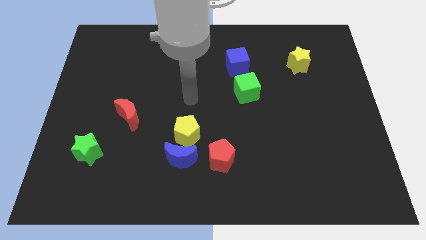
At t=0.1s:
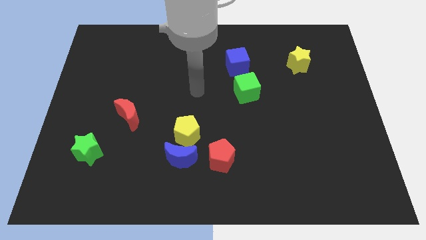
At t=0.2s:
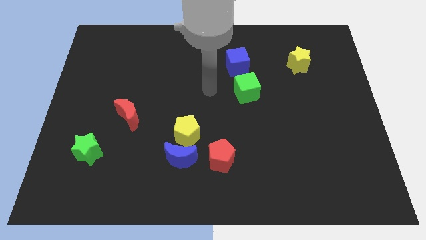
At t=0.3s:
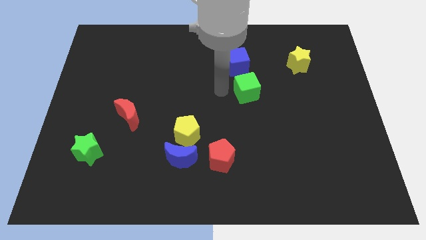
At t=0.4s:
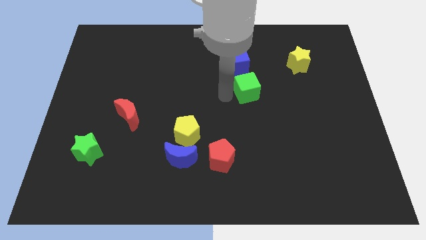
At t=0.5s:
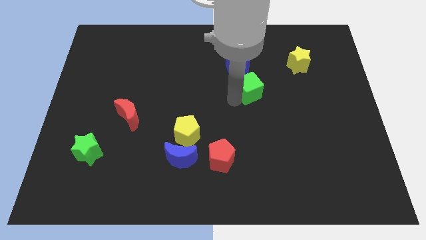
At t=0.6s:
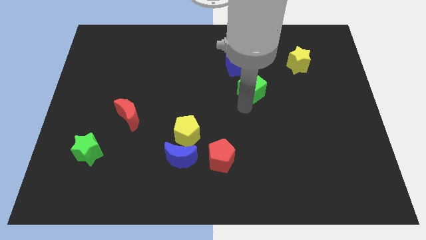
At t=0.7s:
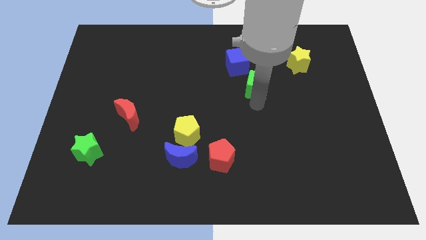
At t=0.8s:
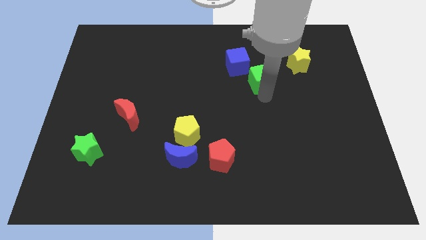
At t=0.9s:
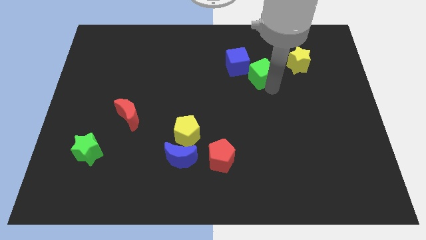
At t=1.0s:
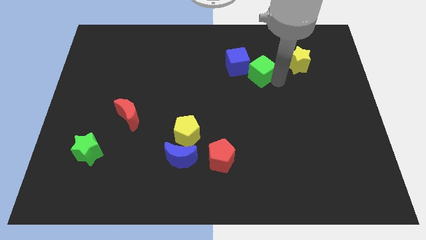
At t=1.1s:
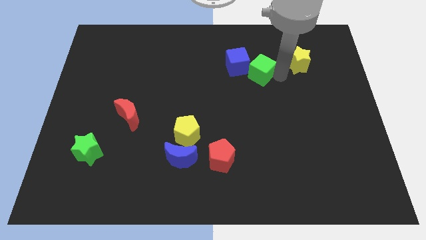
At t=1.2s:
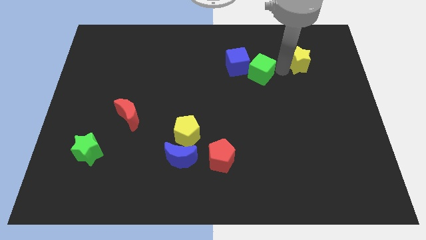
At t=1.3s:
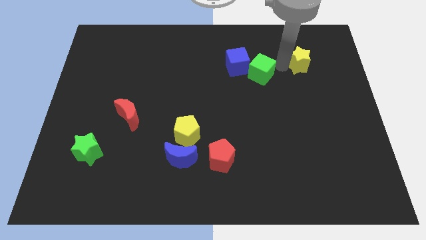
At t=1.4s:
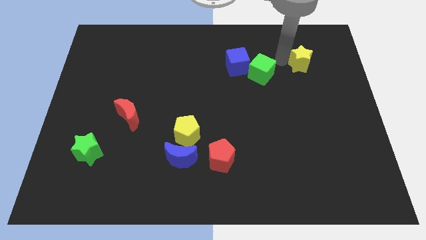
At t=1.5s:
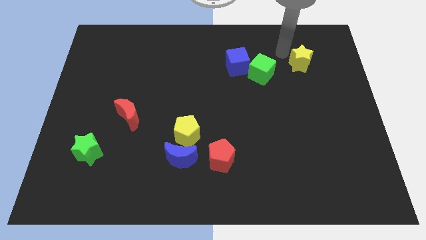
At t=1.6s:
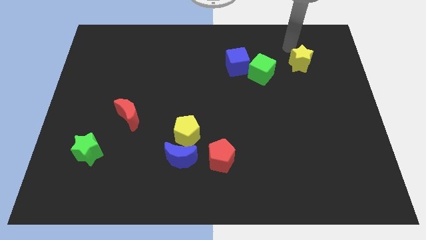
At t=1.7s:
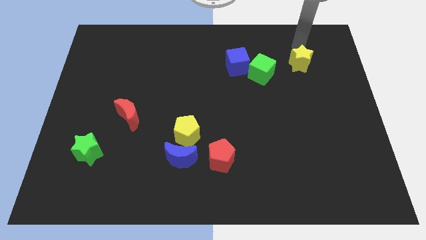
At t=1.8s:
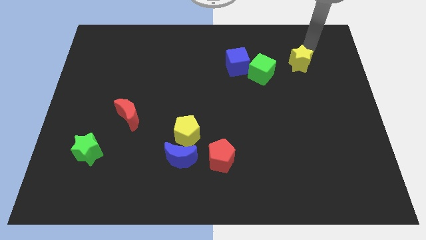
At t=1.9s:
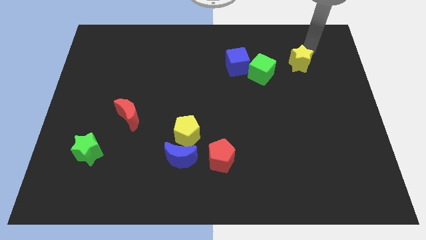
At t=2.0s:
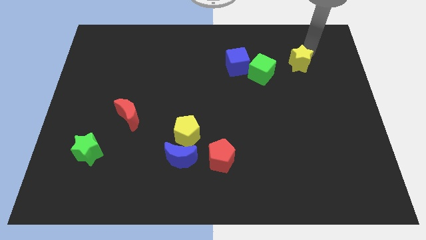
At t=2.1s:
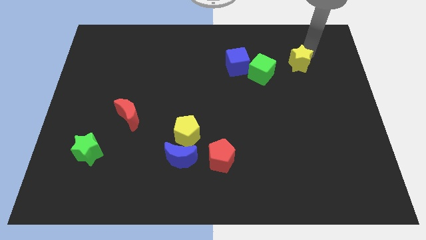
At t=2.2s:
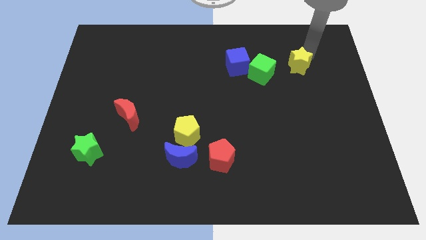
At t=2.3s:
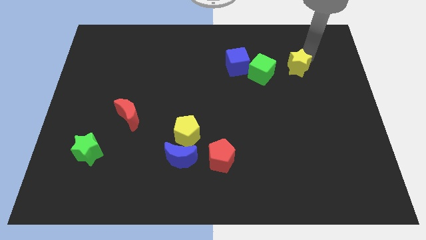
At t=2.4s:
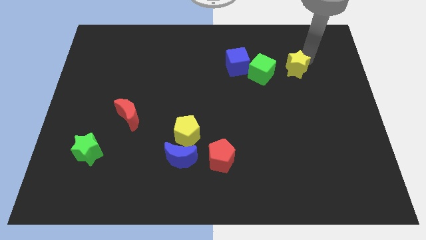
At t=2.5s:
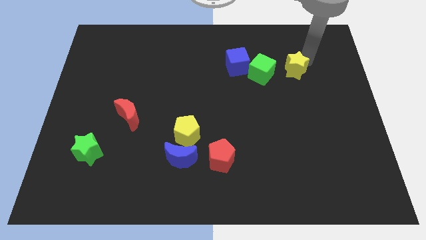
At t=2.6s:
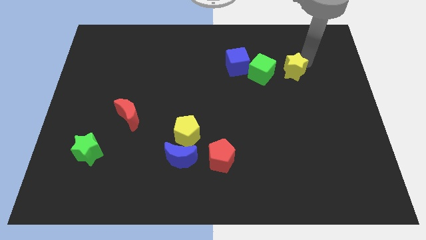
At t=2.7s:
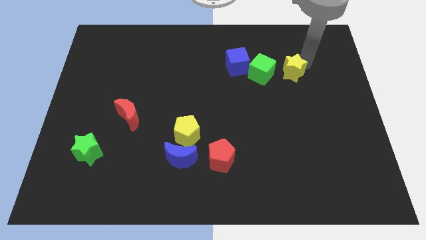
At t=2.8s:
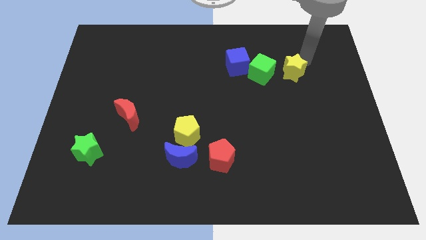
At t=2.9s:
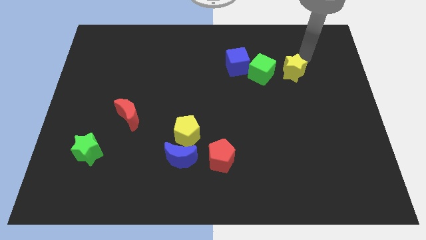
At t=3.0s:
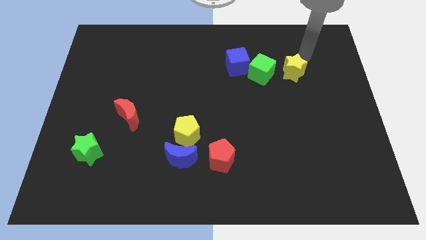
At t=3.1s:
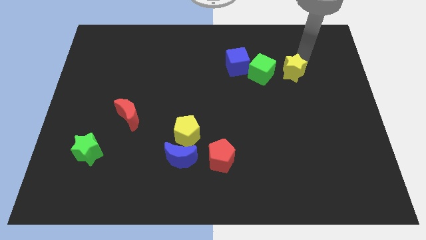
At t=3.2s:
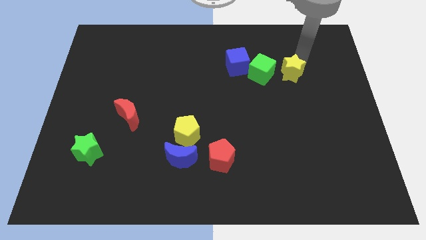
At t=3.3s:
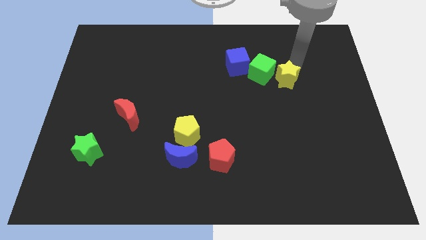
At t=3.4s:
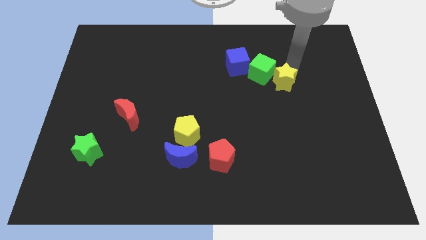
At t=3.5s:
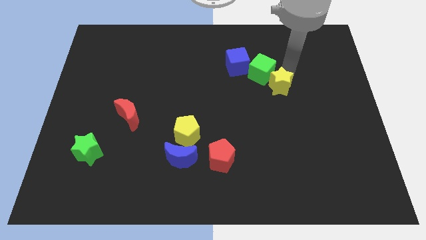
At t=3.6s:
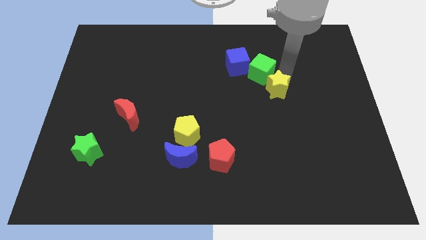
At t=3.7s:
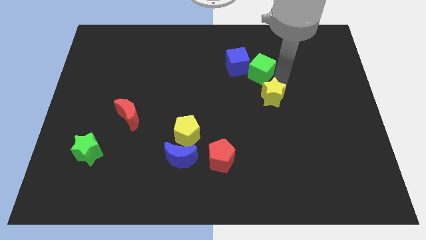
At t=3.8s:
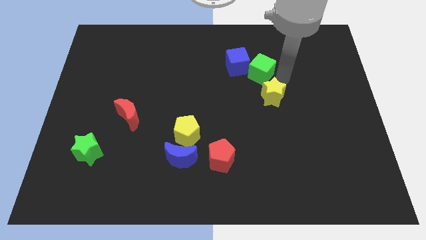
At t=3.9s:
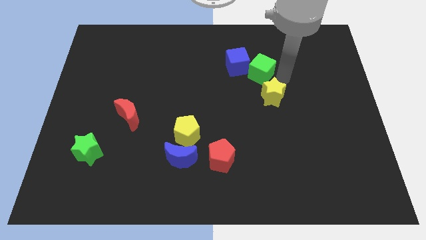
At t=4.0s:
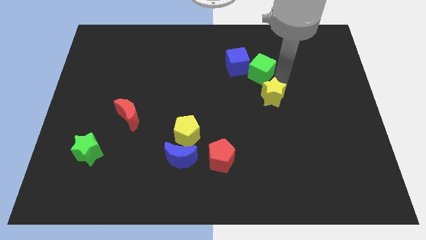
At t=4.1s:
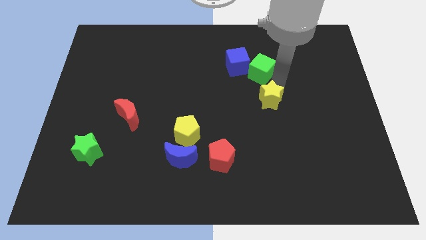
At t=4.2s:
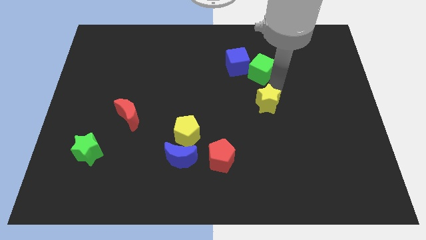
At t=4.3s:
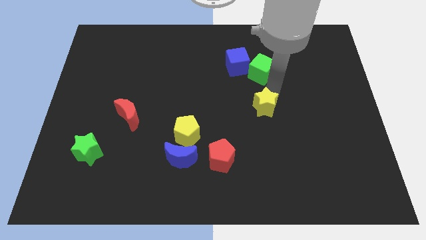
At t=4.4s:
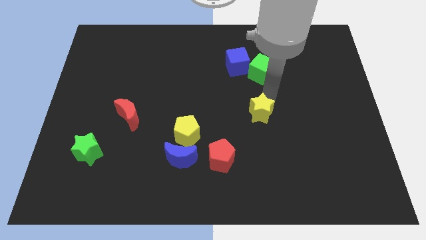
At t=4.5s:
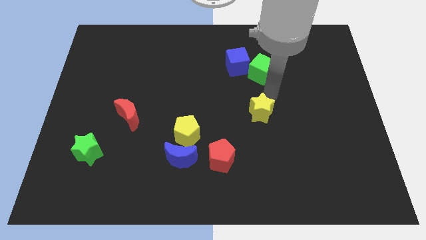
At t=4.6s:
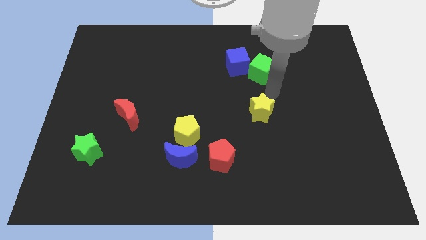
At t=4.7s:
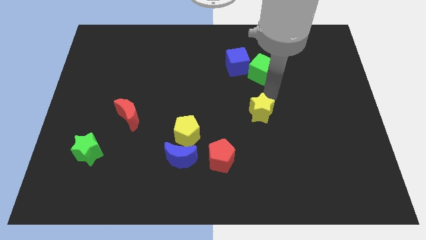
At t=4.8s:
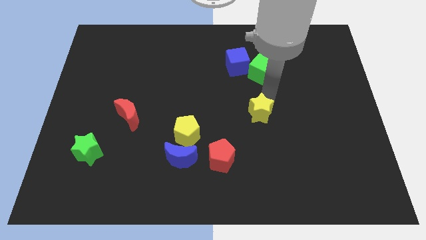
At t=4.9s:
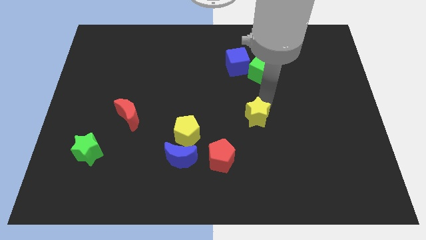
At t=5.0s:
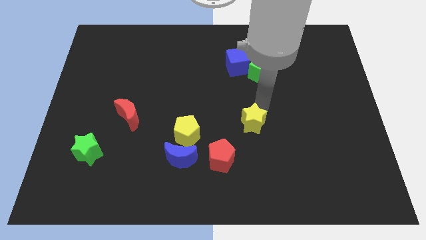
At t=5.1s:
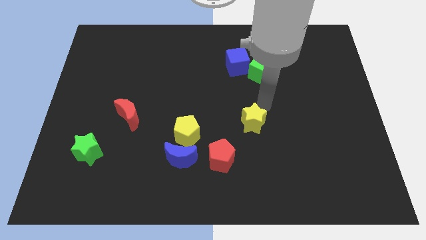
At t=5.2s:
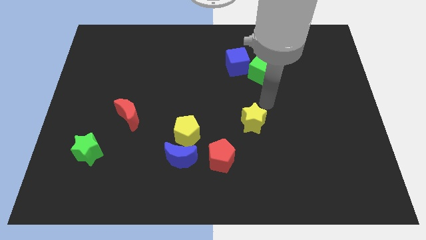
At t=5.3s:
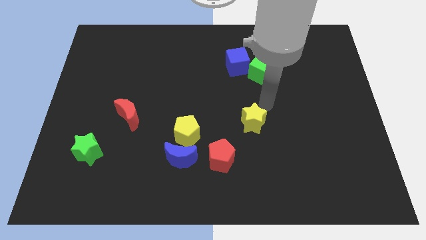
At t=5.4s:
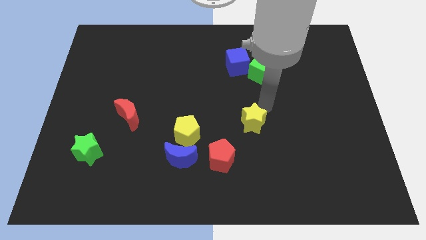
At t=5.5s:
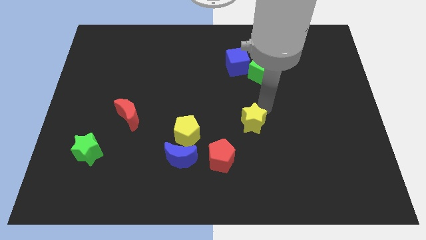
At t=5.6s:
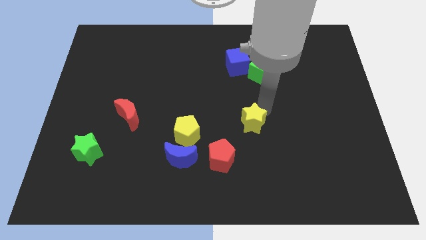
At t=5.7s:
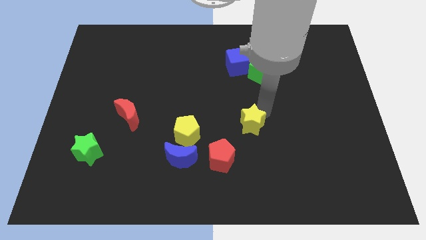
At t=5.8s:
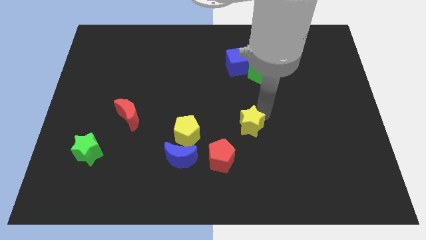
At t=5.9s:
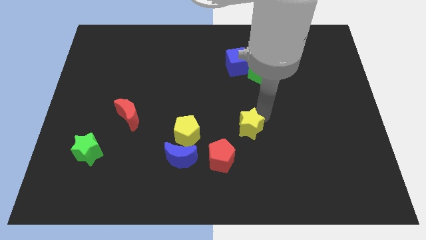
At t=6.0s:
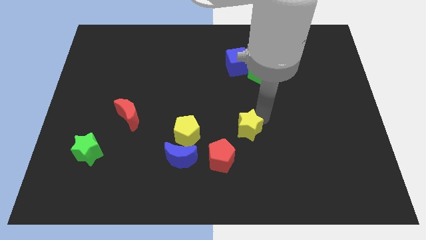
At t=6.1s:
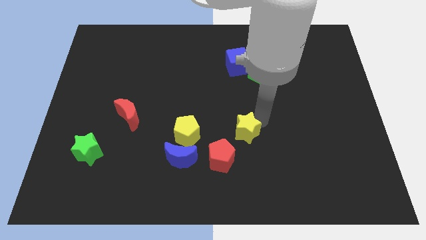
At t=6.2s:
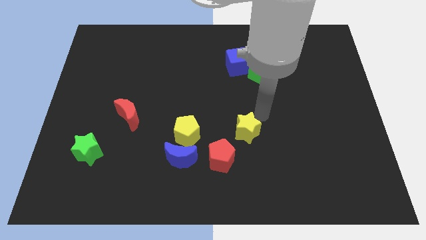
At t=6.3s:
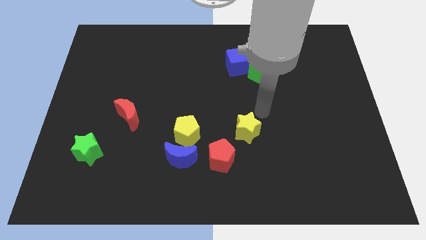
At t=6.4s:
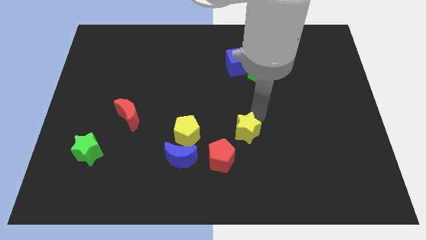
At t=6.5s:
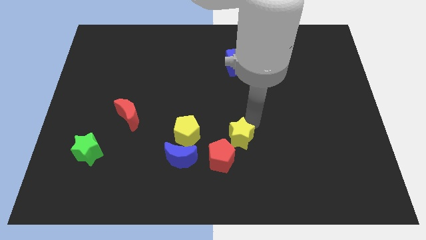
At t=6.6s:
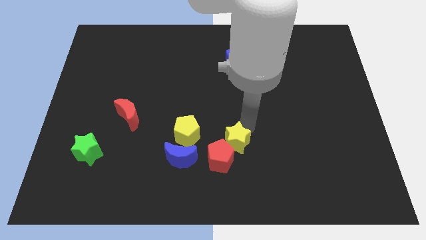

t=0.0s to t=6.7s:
put the yellow star to the red pentagon

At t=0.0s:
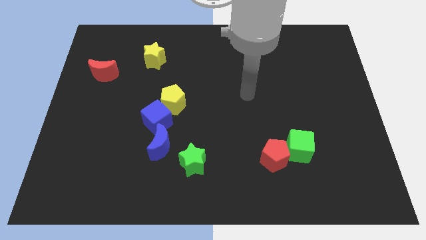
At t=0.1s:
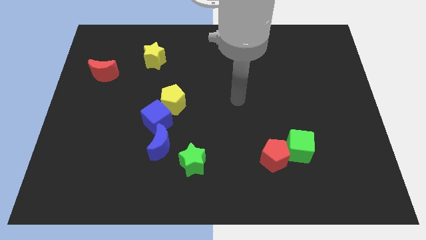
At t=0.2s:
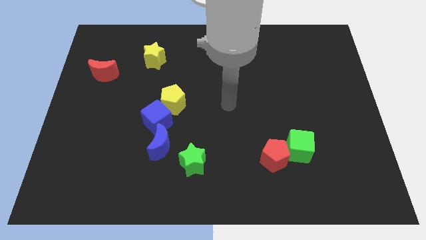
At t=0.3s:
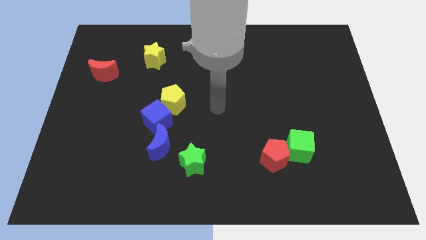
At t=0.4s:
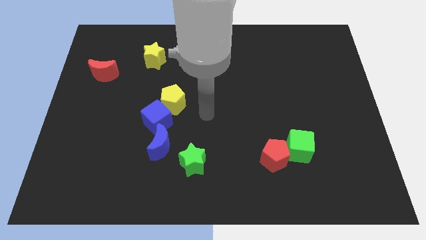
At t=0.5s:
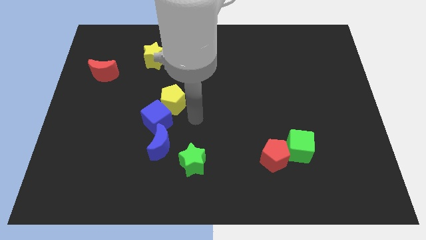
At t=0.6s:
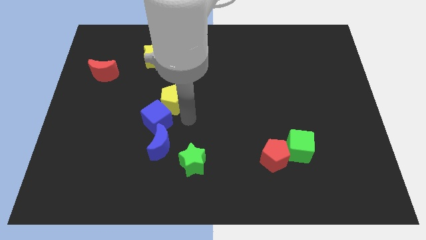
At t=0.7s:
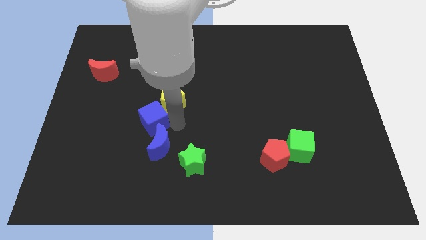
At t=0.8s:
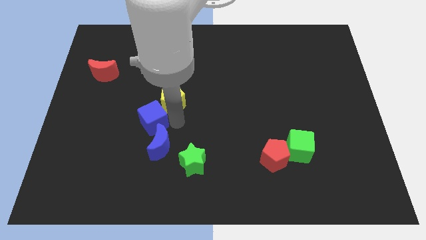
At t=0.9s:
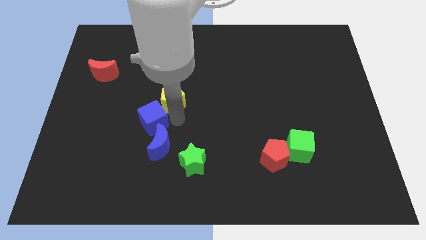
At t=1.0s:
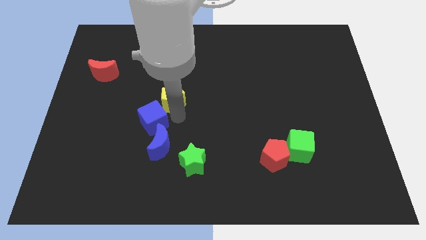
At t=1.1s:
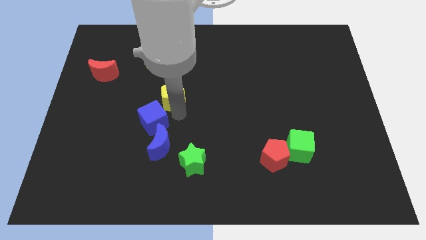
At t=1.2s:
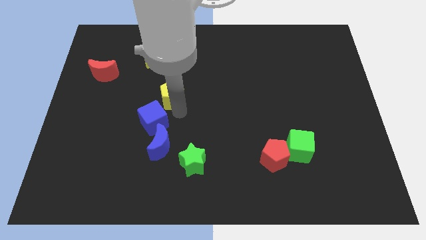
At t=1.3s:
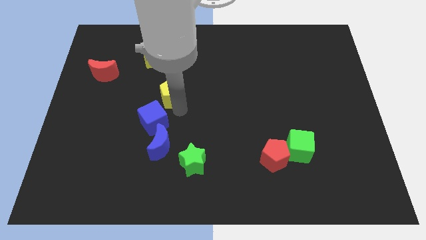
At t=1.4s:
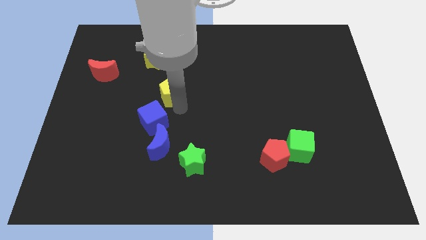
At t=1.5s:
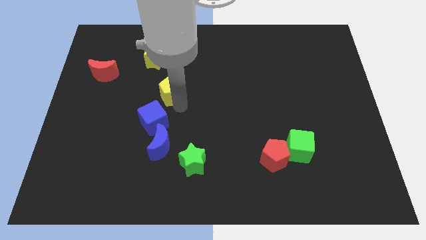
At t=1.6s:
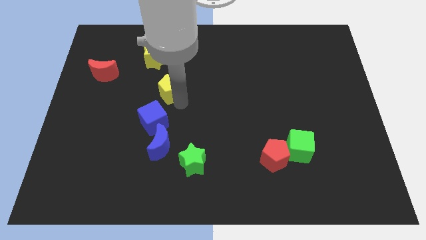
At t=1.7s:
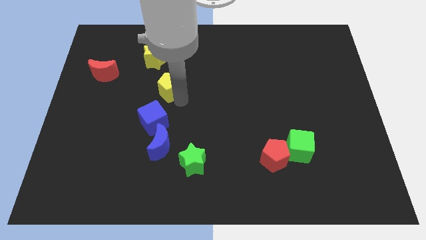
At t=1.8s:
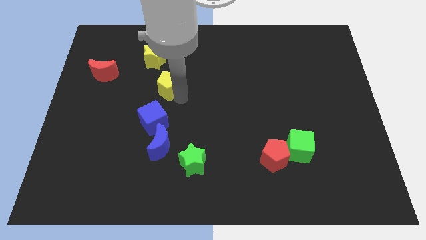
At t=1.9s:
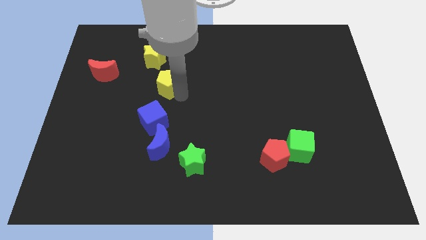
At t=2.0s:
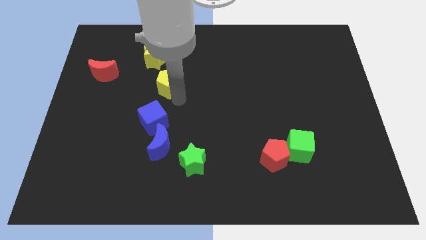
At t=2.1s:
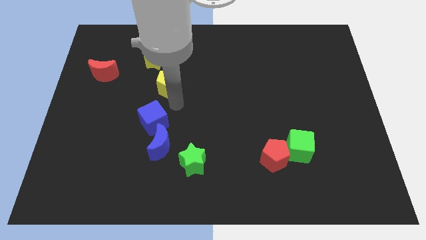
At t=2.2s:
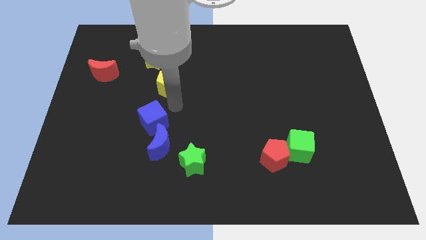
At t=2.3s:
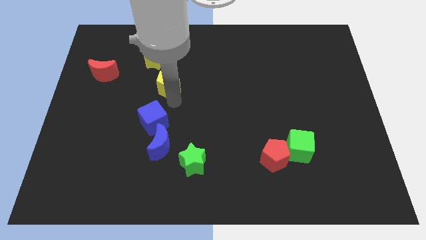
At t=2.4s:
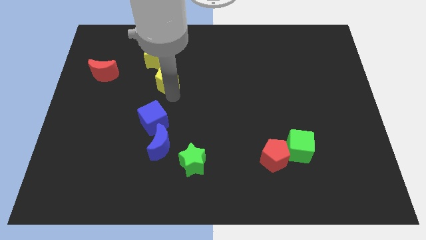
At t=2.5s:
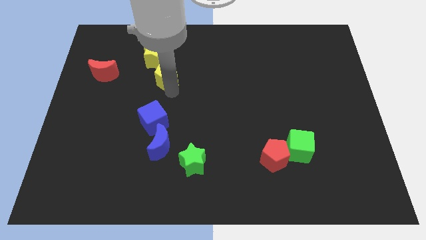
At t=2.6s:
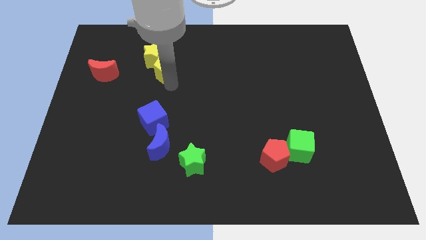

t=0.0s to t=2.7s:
slide the yellow pentagon next to the yellow star
